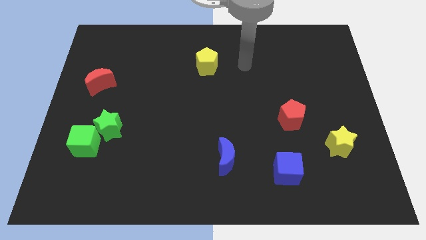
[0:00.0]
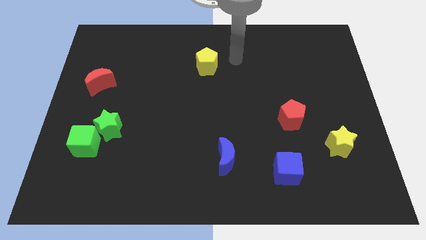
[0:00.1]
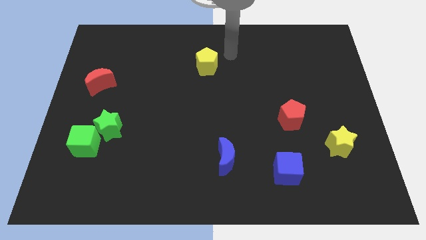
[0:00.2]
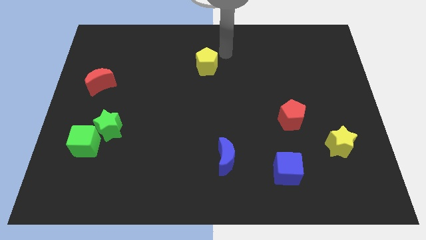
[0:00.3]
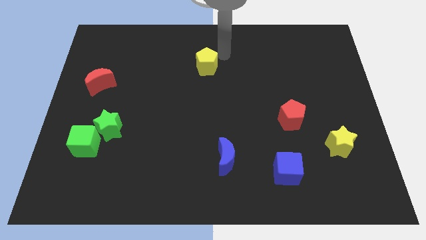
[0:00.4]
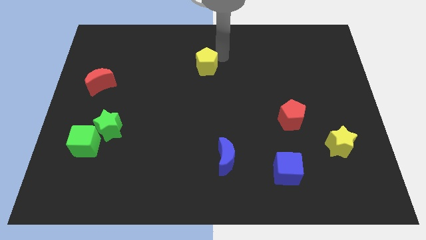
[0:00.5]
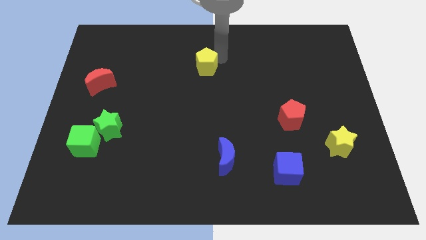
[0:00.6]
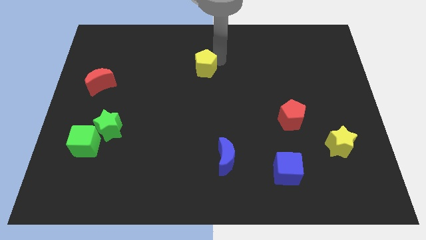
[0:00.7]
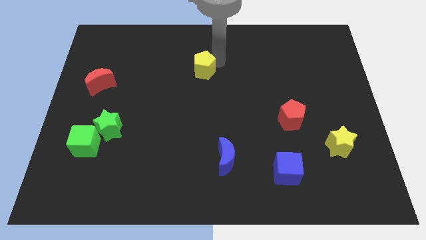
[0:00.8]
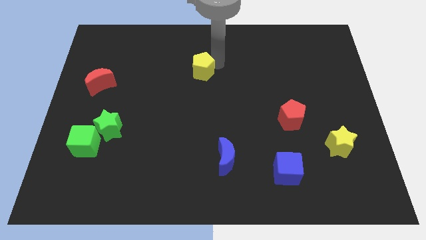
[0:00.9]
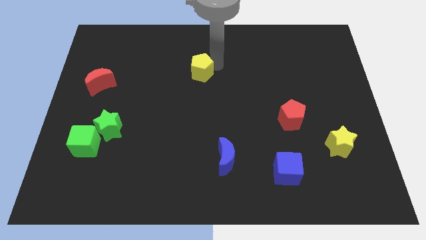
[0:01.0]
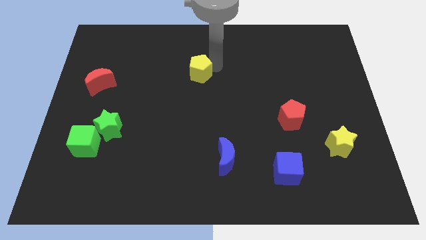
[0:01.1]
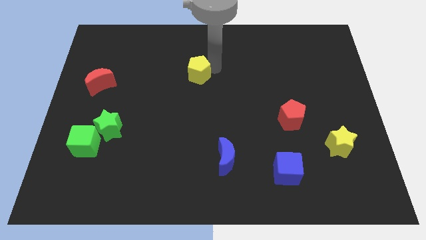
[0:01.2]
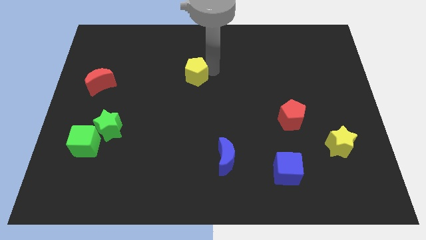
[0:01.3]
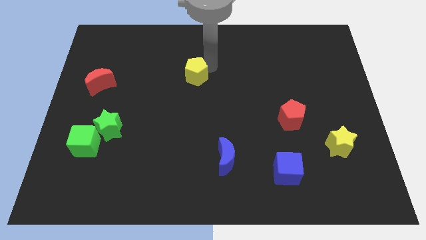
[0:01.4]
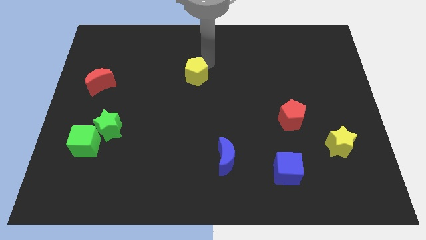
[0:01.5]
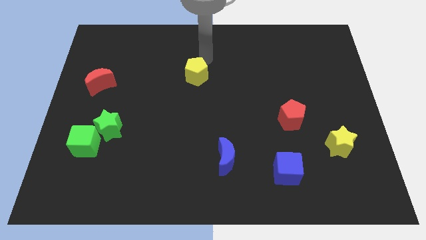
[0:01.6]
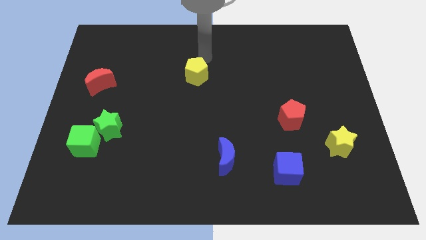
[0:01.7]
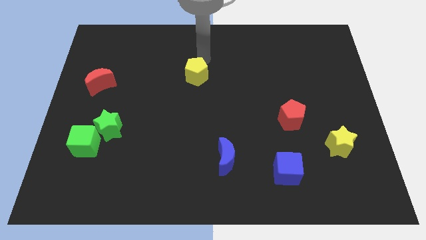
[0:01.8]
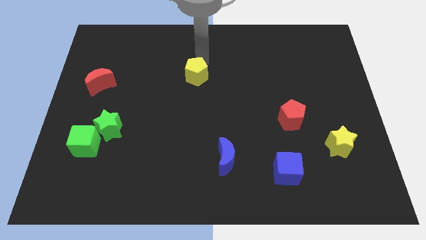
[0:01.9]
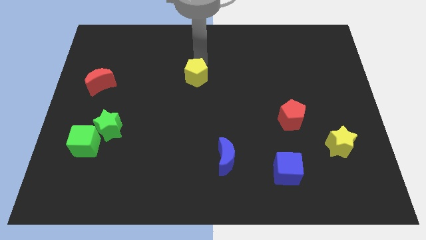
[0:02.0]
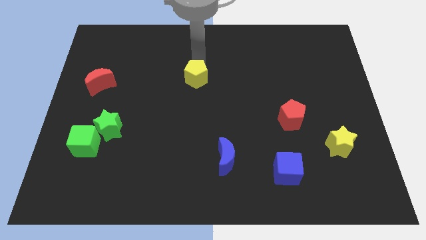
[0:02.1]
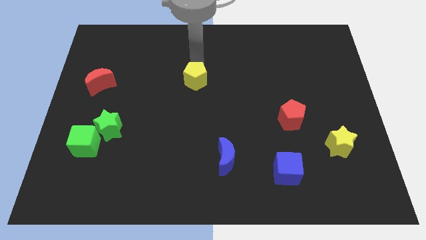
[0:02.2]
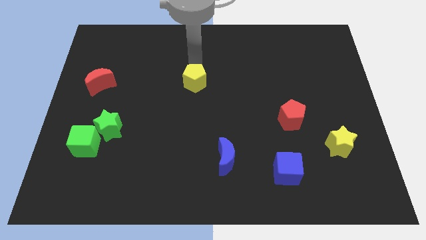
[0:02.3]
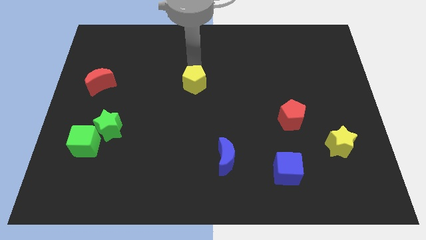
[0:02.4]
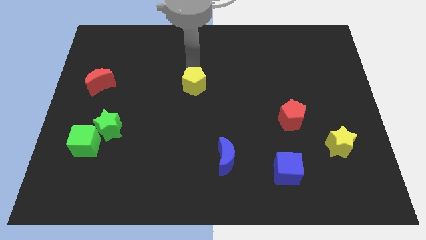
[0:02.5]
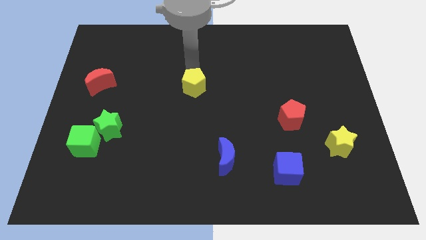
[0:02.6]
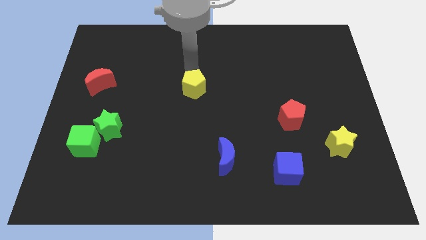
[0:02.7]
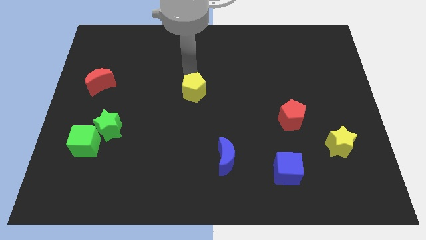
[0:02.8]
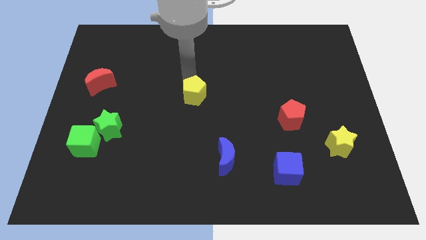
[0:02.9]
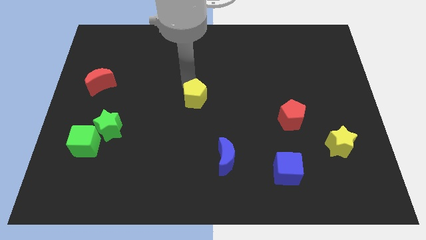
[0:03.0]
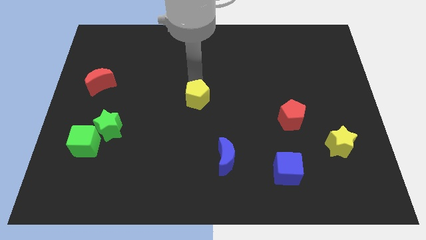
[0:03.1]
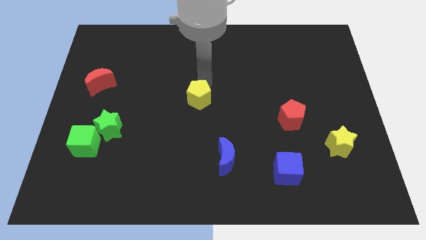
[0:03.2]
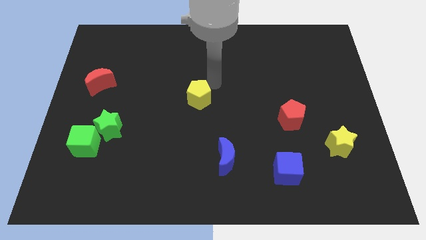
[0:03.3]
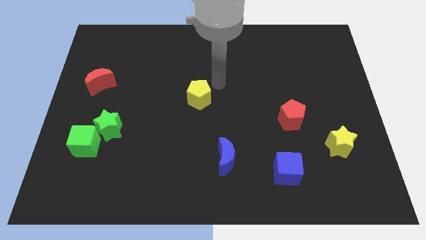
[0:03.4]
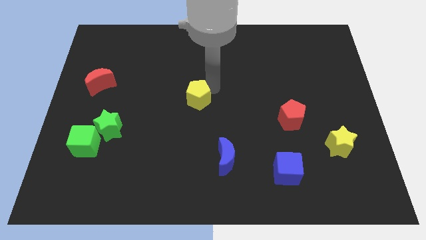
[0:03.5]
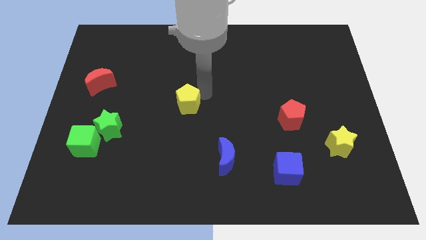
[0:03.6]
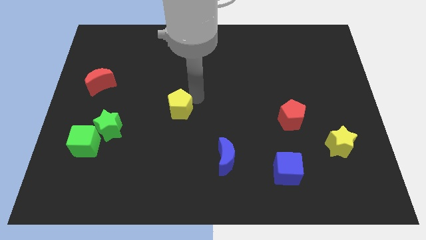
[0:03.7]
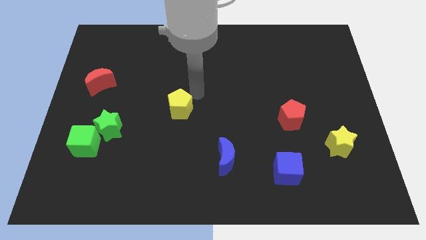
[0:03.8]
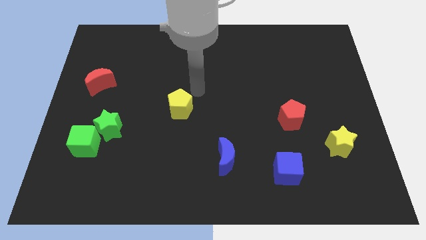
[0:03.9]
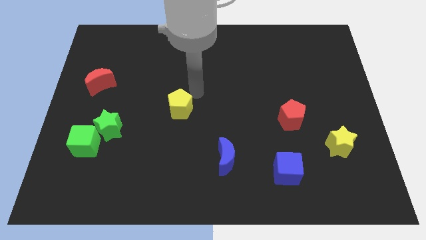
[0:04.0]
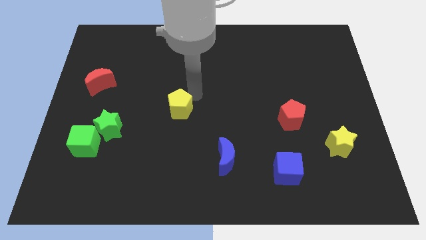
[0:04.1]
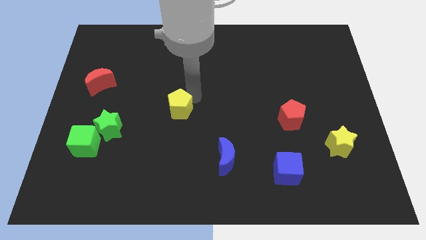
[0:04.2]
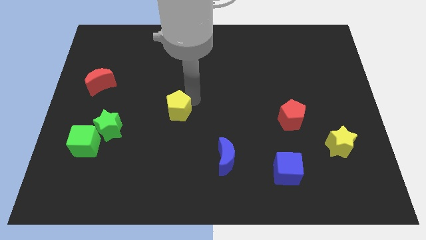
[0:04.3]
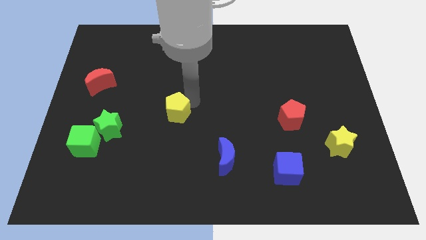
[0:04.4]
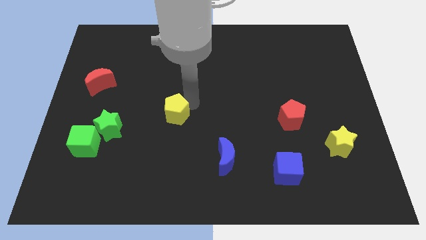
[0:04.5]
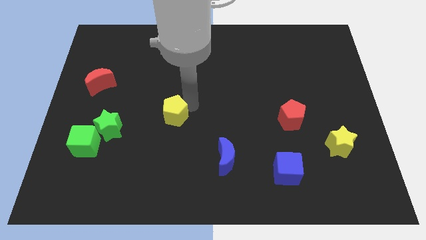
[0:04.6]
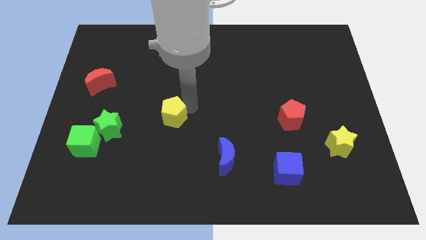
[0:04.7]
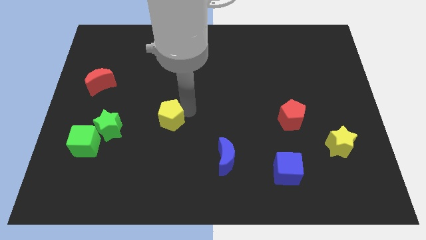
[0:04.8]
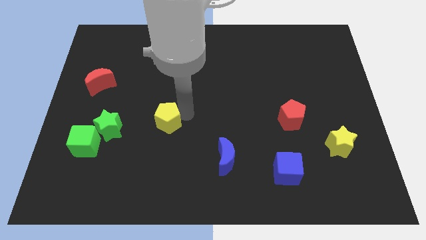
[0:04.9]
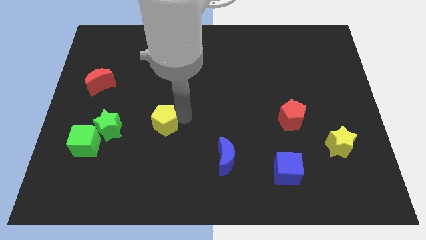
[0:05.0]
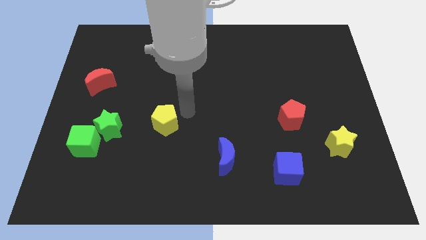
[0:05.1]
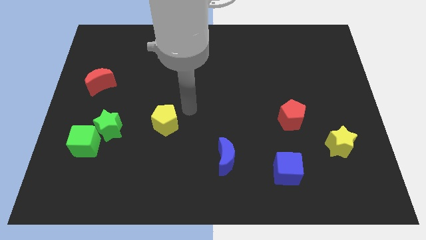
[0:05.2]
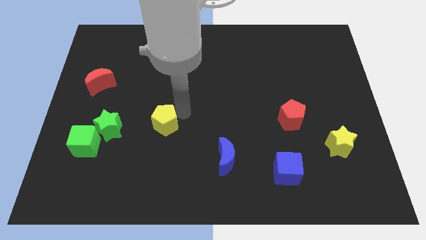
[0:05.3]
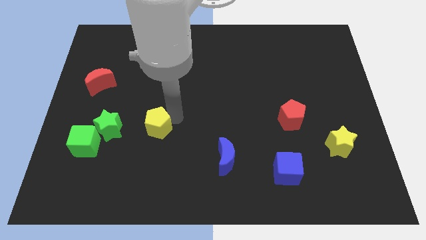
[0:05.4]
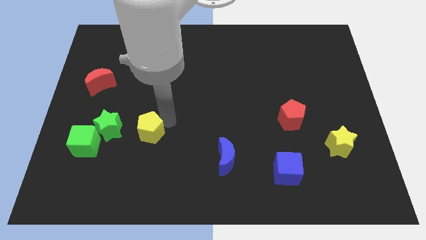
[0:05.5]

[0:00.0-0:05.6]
move the yellow pentagon just right of the green cube

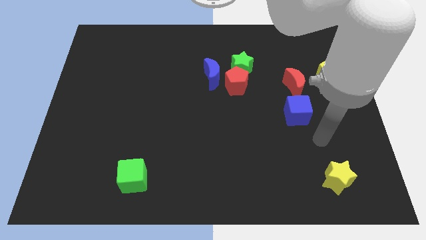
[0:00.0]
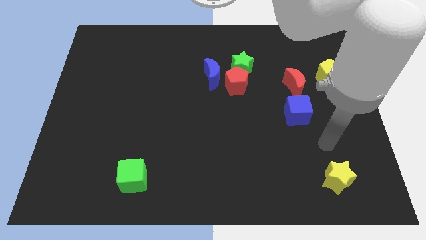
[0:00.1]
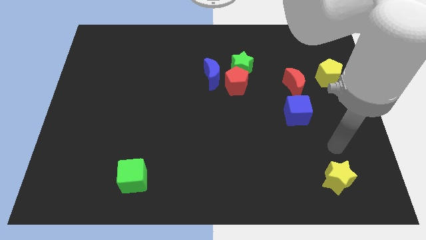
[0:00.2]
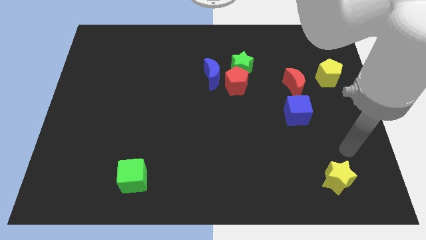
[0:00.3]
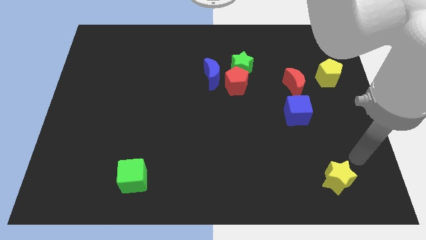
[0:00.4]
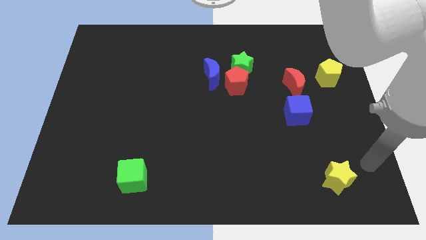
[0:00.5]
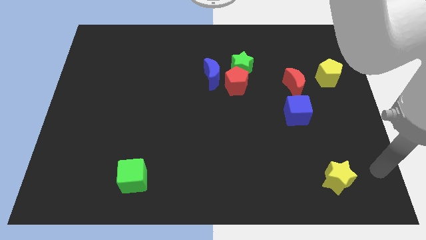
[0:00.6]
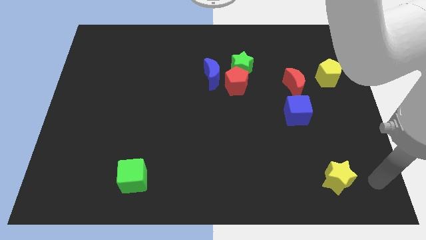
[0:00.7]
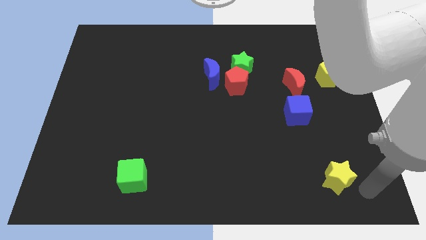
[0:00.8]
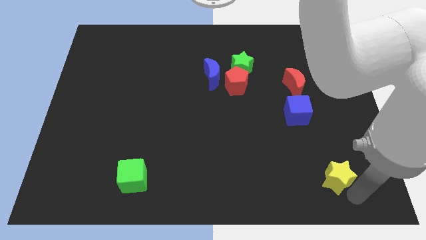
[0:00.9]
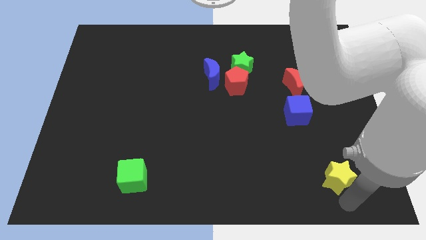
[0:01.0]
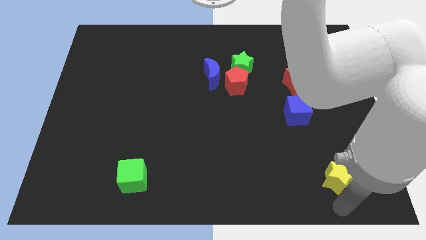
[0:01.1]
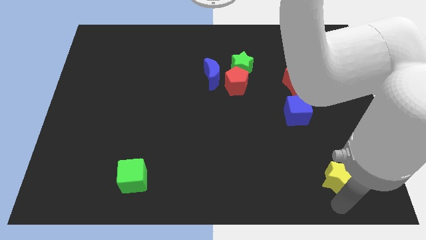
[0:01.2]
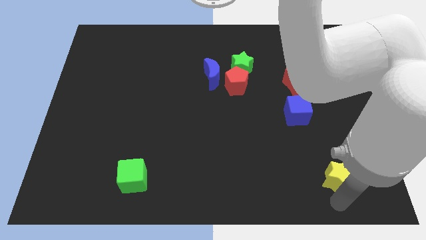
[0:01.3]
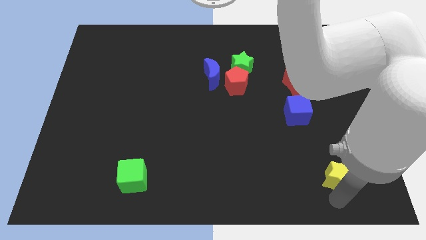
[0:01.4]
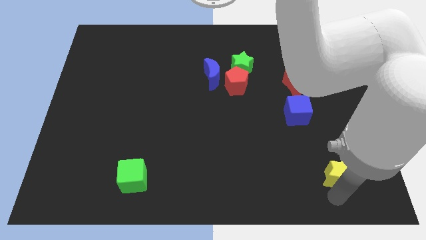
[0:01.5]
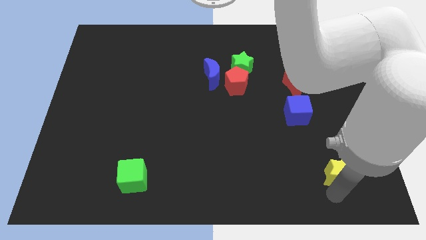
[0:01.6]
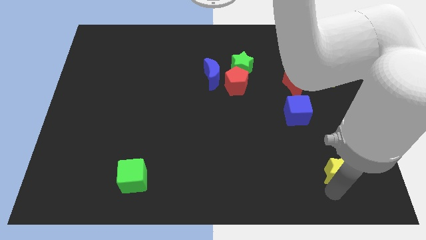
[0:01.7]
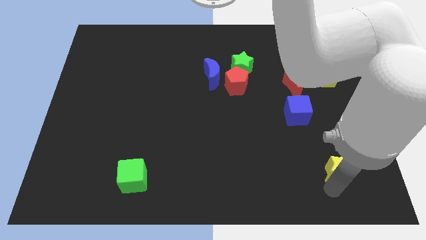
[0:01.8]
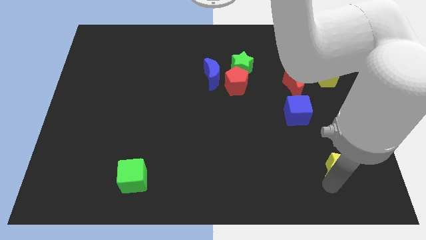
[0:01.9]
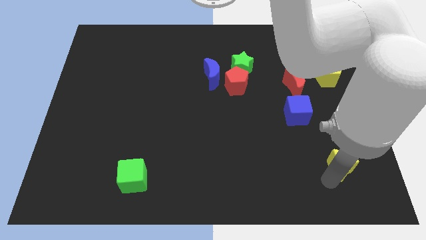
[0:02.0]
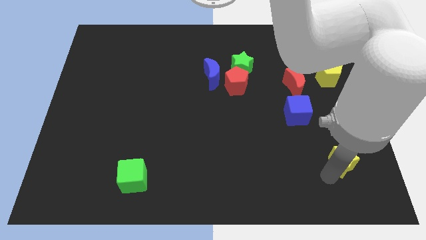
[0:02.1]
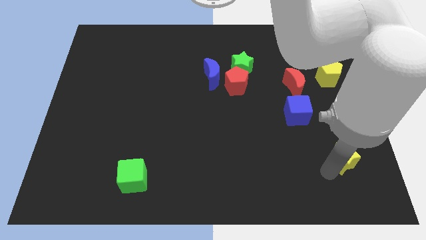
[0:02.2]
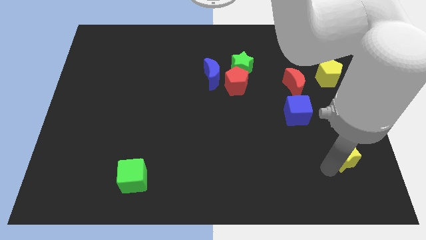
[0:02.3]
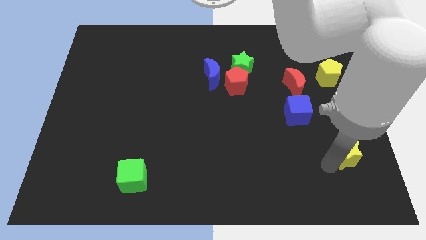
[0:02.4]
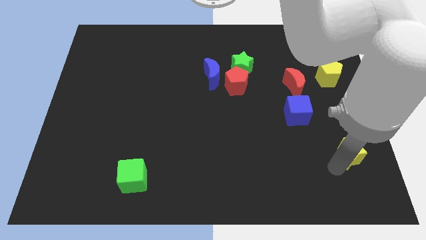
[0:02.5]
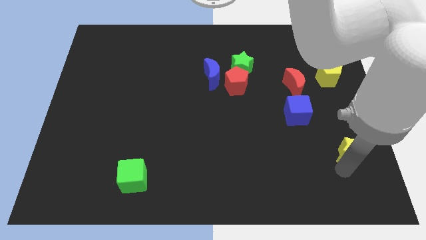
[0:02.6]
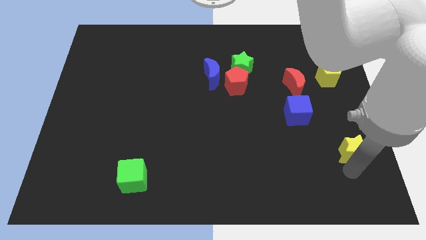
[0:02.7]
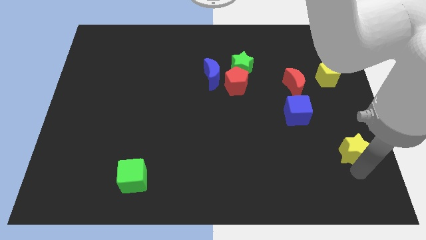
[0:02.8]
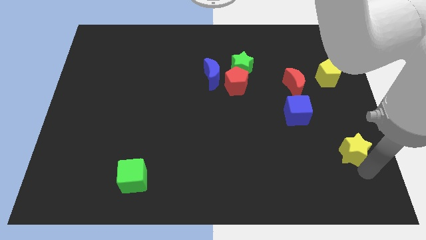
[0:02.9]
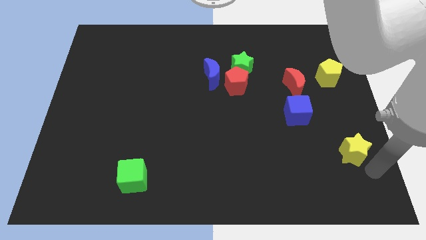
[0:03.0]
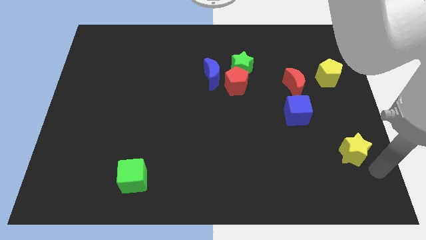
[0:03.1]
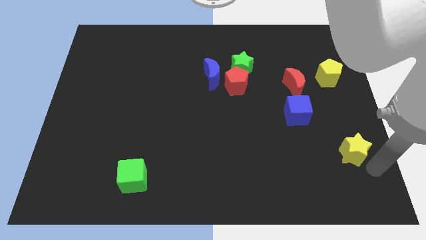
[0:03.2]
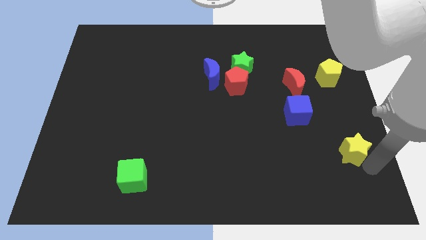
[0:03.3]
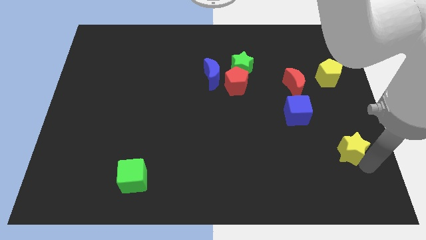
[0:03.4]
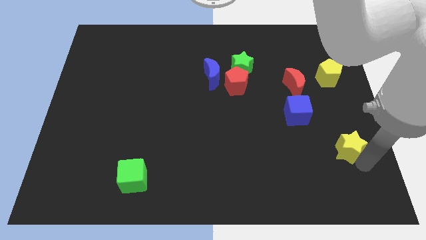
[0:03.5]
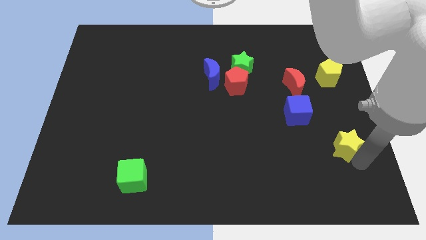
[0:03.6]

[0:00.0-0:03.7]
move the yellow star to the bottom right of the blue cube
